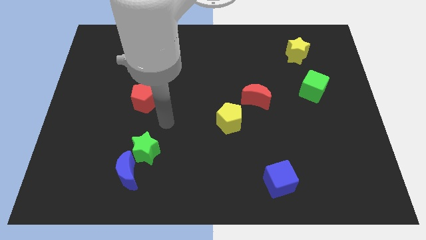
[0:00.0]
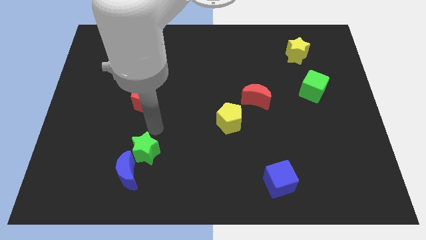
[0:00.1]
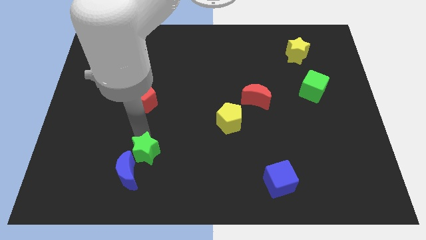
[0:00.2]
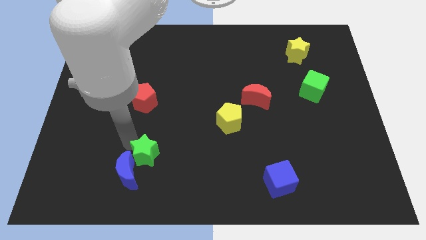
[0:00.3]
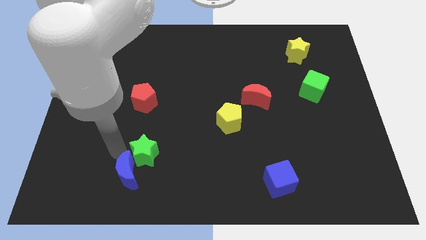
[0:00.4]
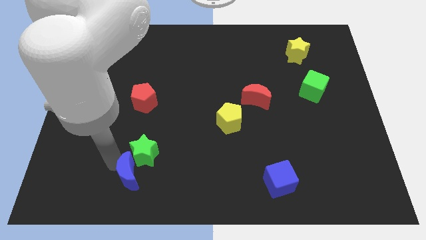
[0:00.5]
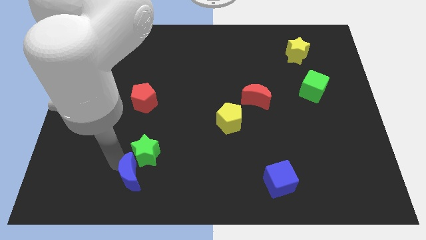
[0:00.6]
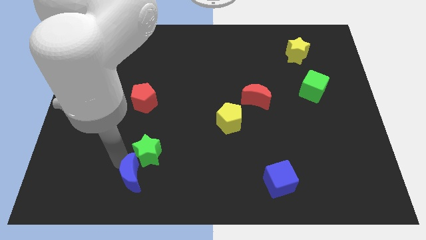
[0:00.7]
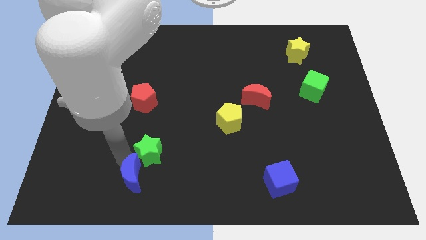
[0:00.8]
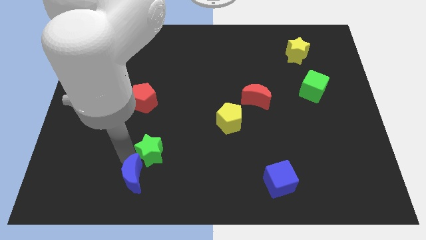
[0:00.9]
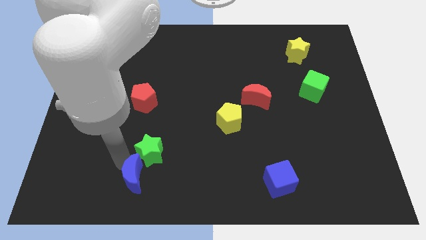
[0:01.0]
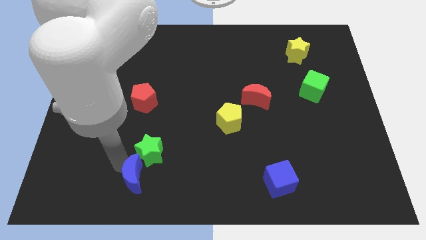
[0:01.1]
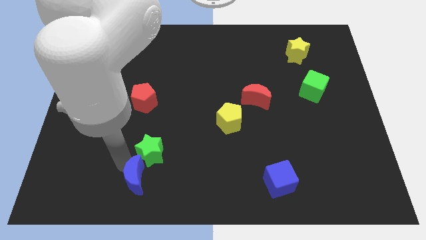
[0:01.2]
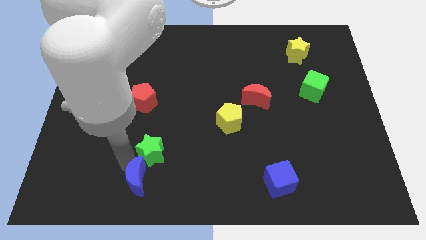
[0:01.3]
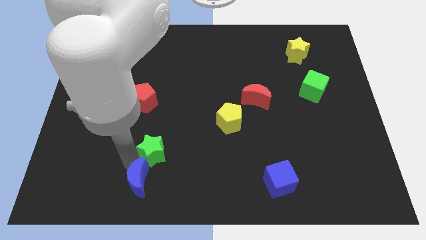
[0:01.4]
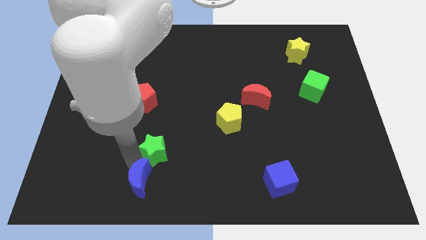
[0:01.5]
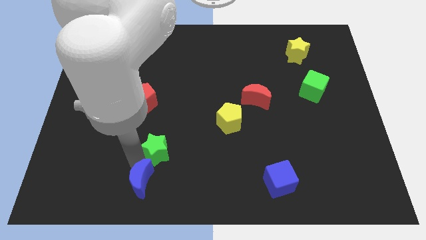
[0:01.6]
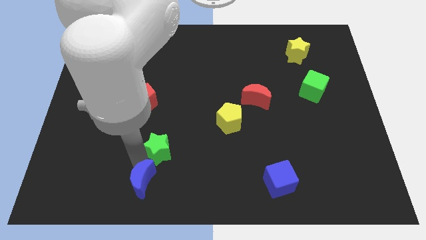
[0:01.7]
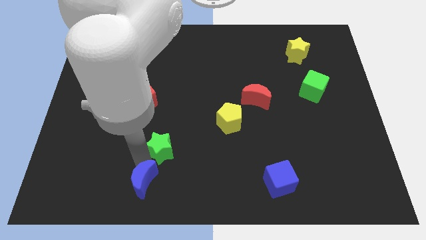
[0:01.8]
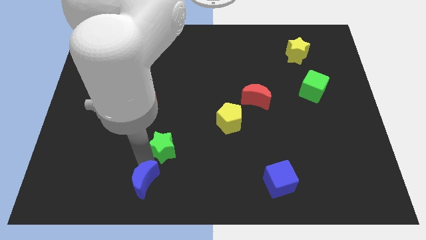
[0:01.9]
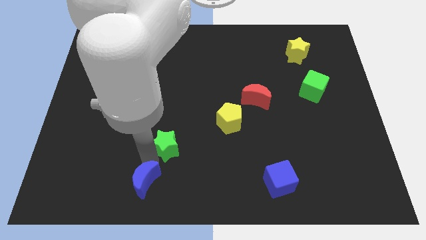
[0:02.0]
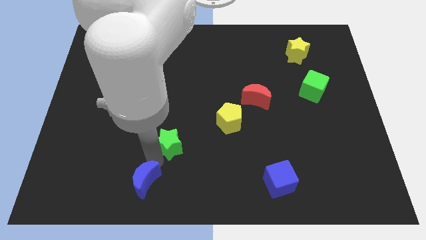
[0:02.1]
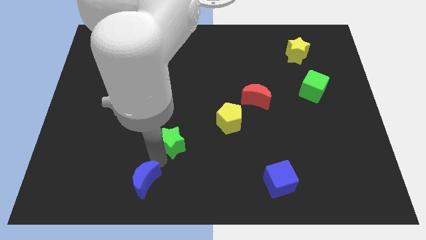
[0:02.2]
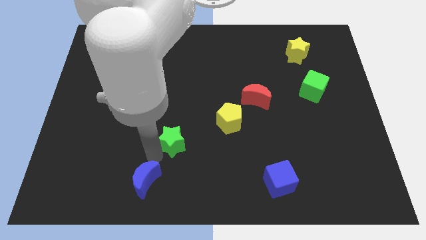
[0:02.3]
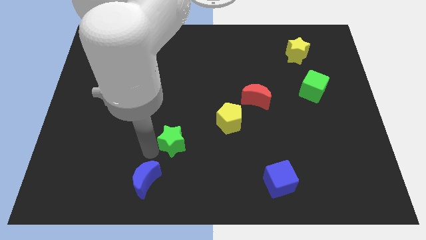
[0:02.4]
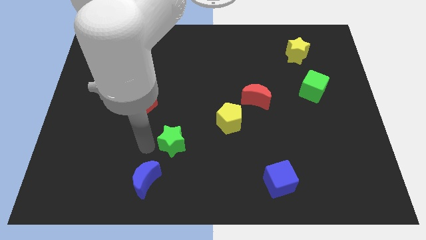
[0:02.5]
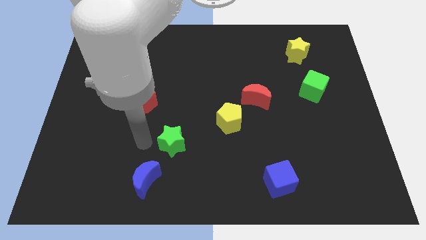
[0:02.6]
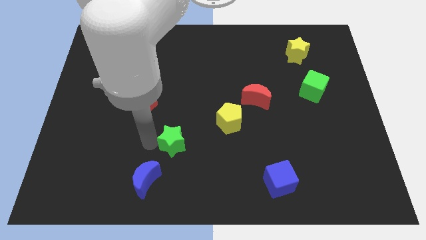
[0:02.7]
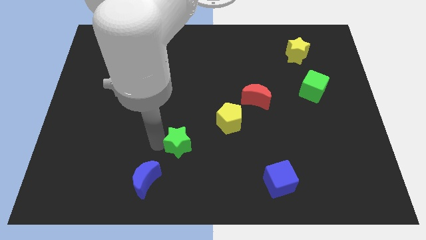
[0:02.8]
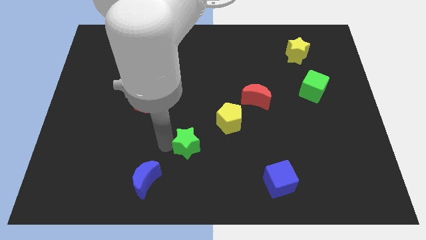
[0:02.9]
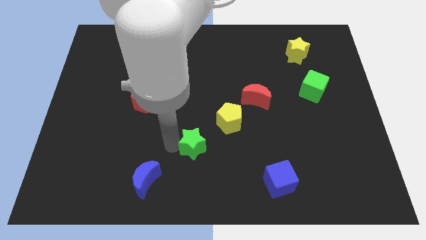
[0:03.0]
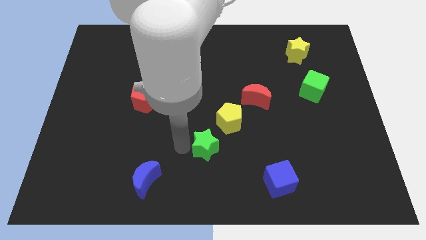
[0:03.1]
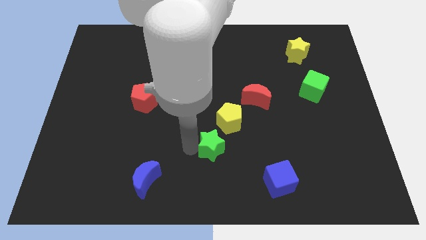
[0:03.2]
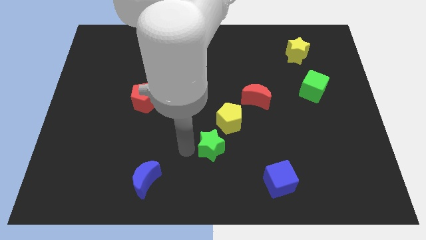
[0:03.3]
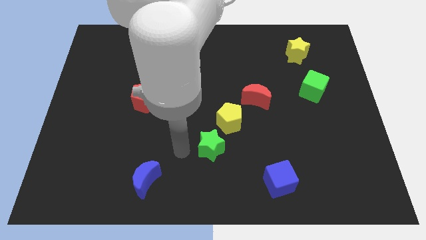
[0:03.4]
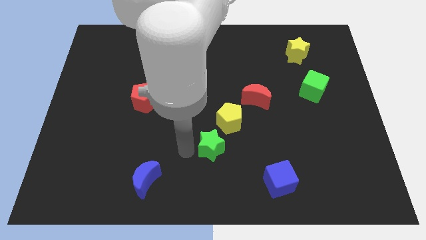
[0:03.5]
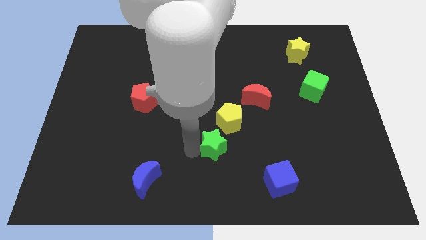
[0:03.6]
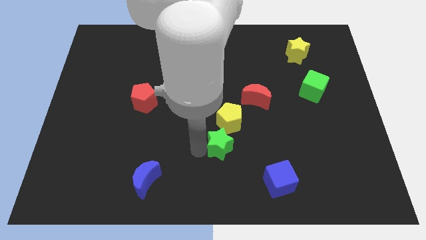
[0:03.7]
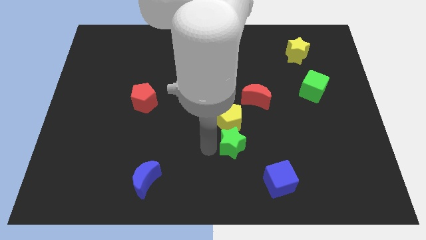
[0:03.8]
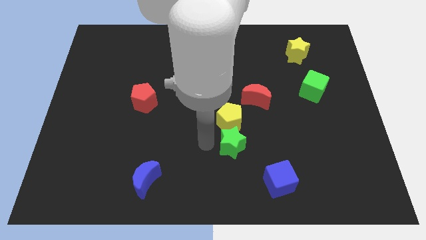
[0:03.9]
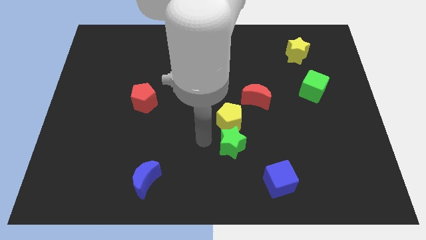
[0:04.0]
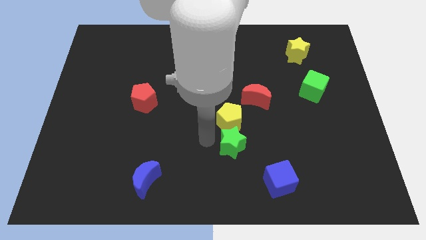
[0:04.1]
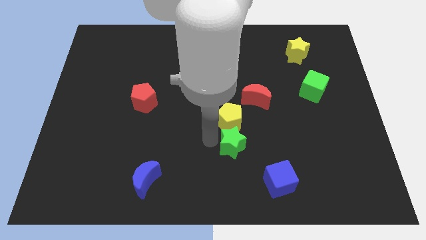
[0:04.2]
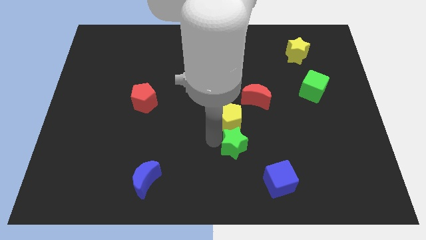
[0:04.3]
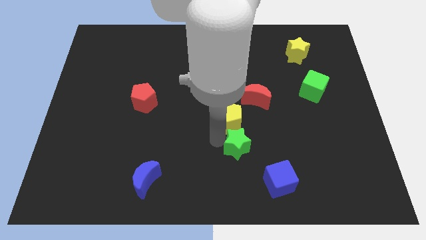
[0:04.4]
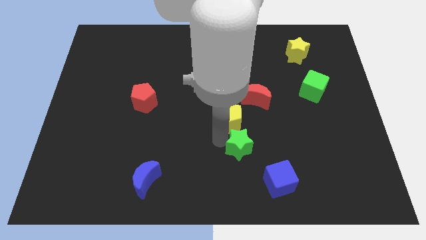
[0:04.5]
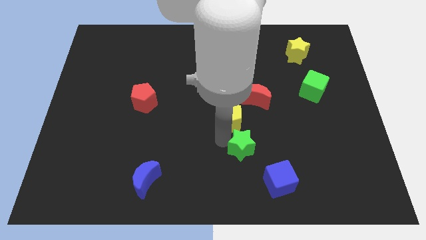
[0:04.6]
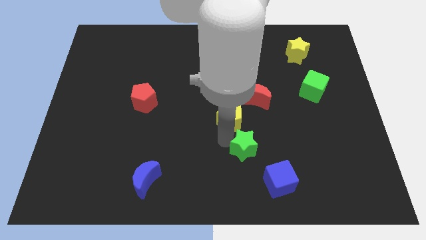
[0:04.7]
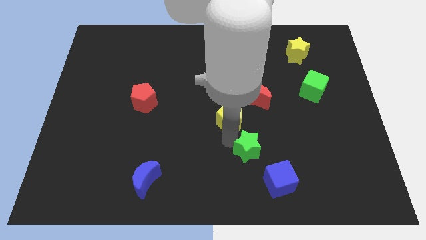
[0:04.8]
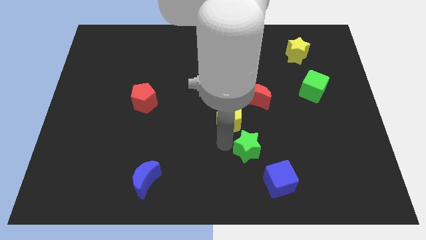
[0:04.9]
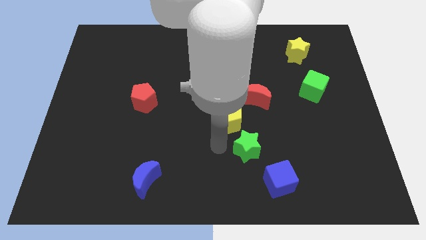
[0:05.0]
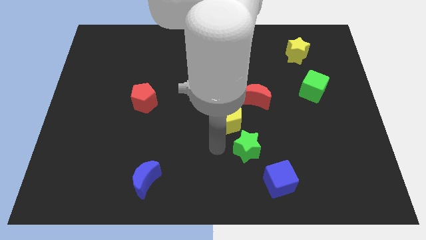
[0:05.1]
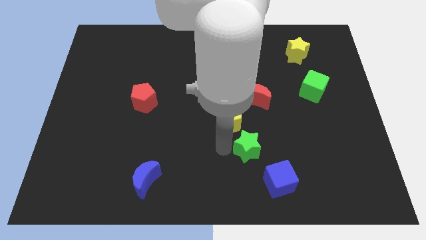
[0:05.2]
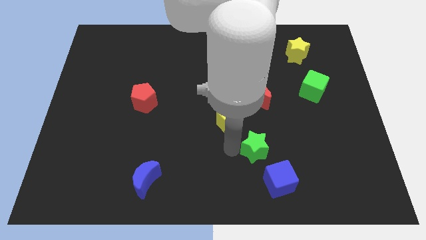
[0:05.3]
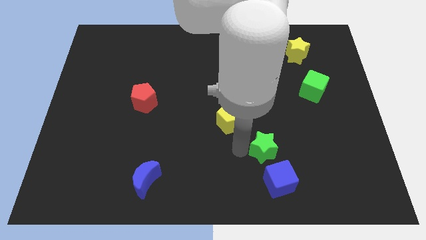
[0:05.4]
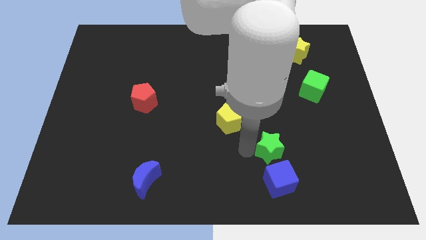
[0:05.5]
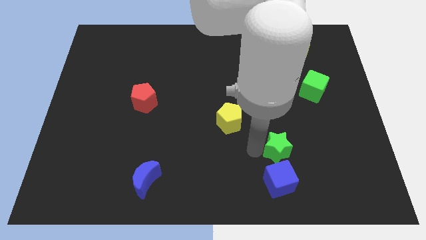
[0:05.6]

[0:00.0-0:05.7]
slide the green star to the top right of the blue cube

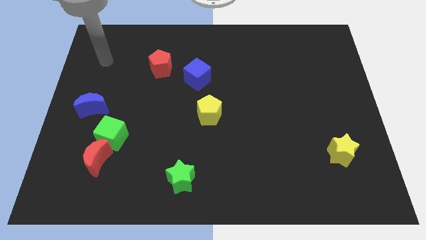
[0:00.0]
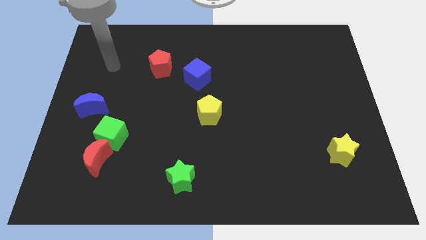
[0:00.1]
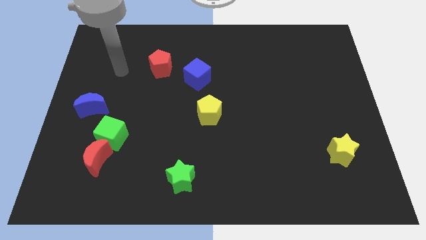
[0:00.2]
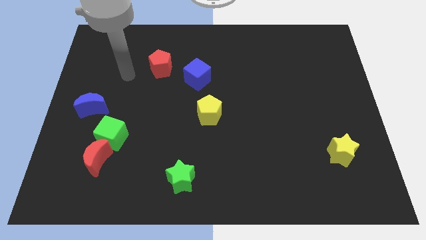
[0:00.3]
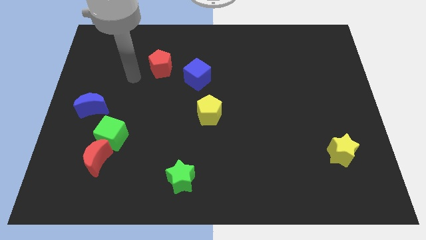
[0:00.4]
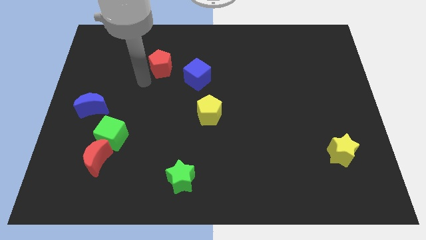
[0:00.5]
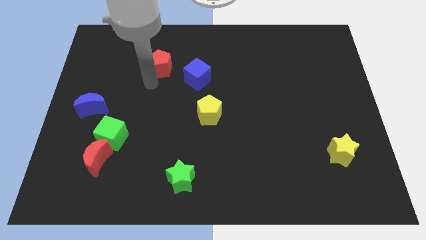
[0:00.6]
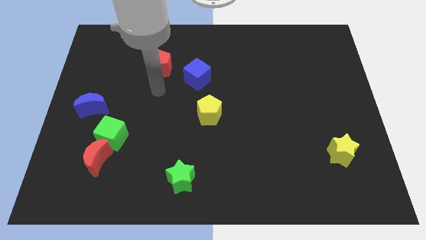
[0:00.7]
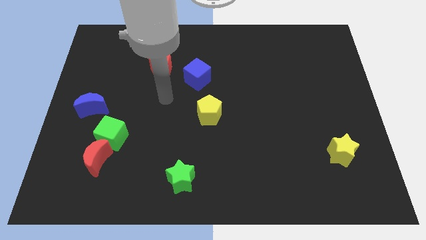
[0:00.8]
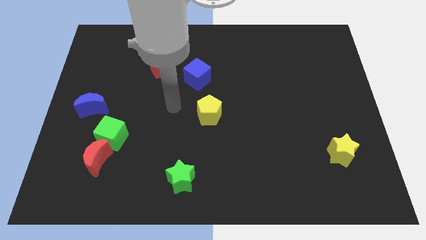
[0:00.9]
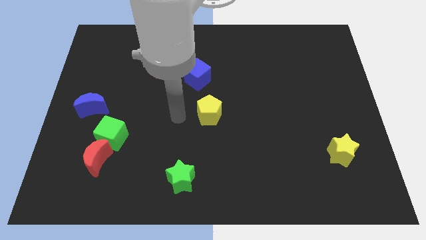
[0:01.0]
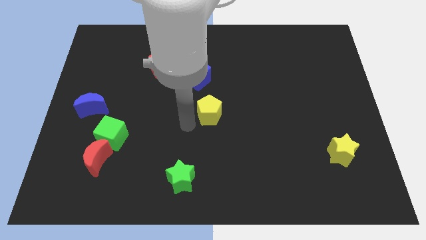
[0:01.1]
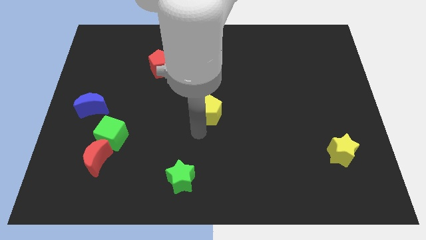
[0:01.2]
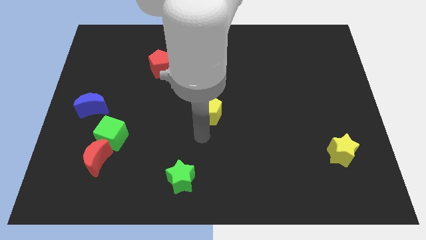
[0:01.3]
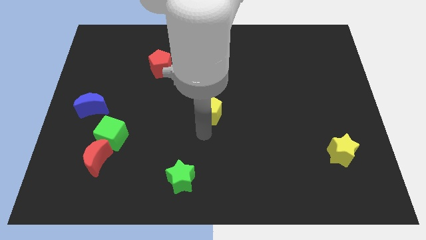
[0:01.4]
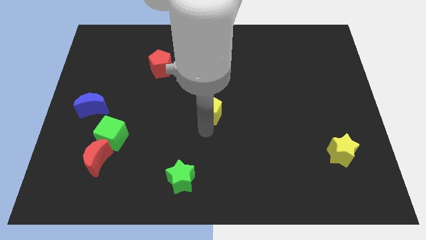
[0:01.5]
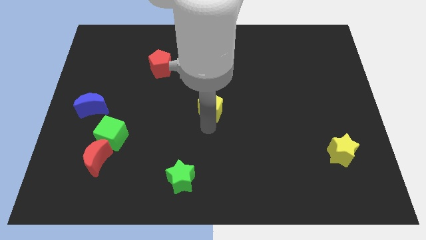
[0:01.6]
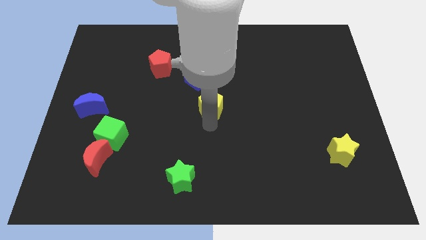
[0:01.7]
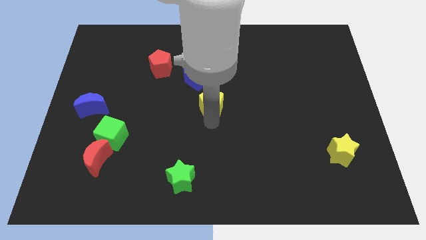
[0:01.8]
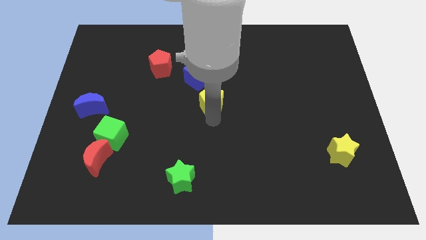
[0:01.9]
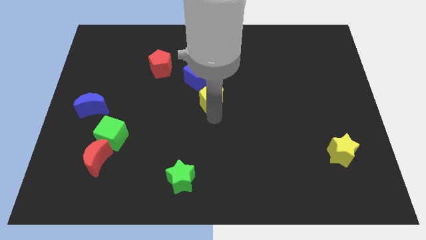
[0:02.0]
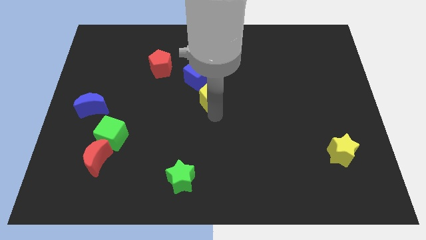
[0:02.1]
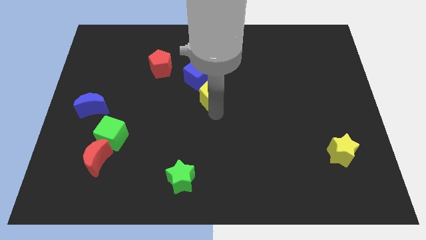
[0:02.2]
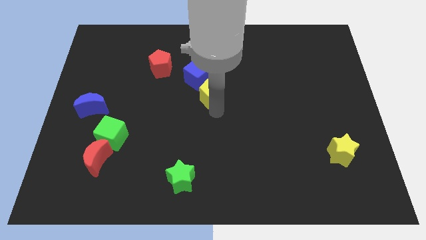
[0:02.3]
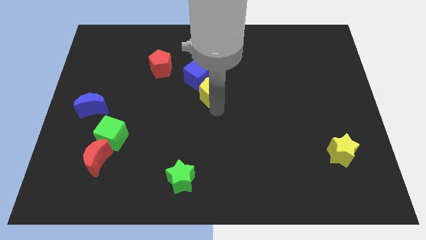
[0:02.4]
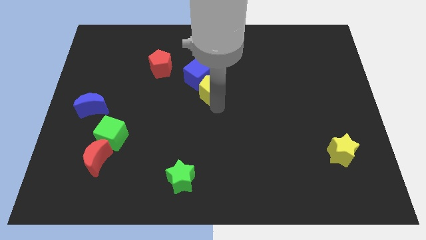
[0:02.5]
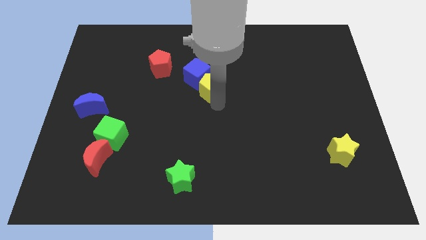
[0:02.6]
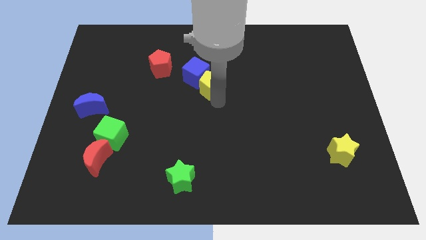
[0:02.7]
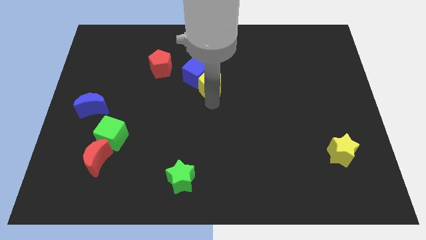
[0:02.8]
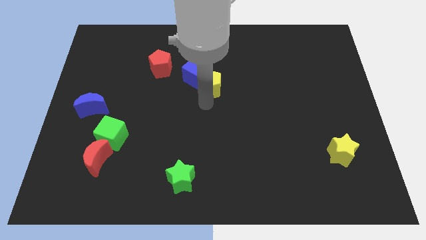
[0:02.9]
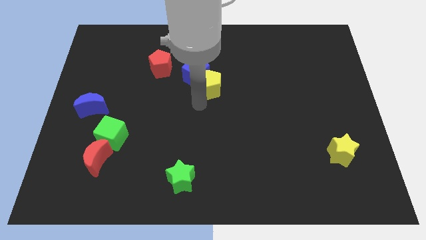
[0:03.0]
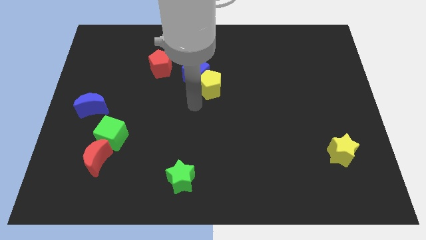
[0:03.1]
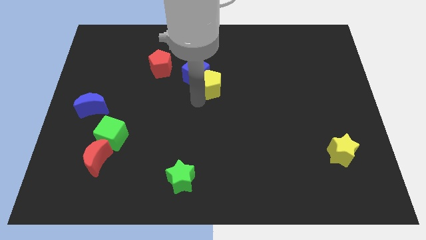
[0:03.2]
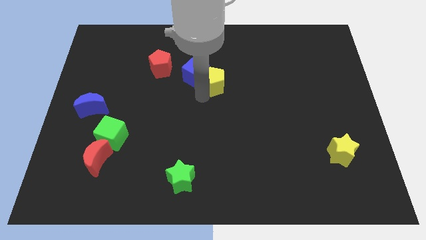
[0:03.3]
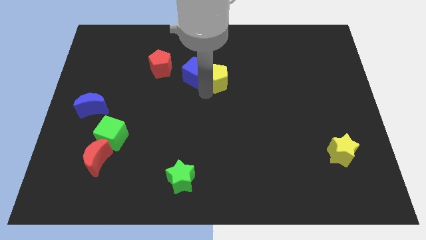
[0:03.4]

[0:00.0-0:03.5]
slide the yellow pentagon diagonally up and to the right of the blue cube
